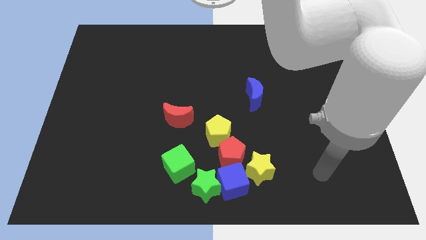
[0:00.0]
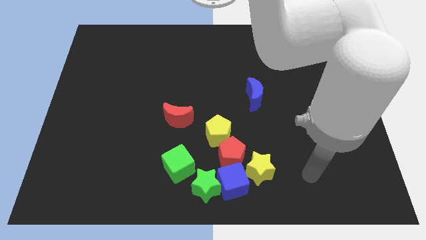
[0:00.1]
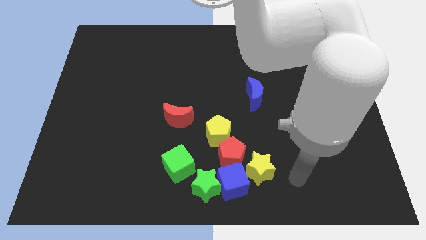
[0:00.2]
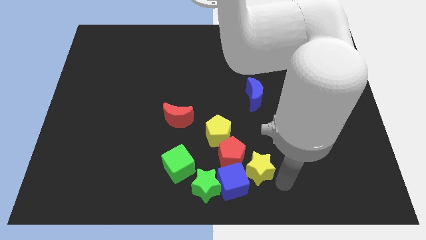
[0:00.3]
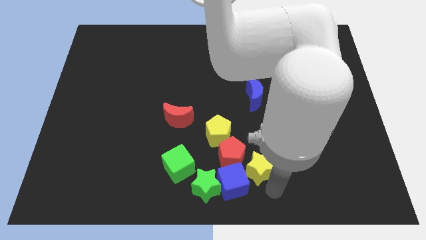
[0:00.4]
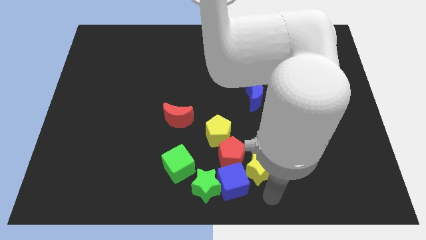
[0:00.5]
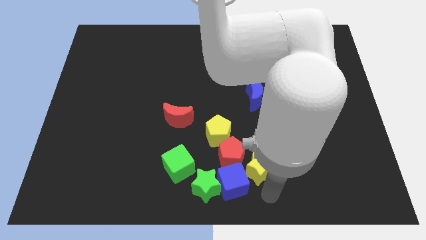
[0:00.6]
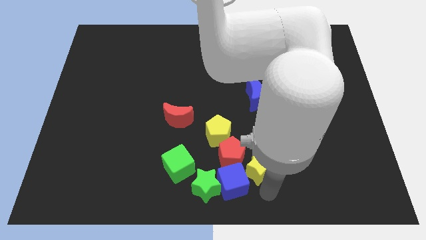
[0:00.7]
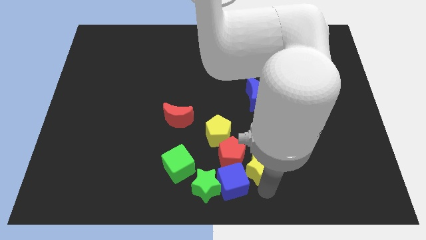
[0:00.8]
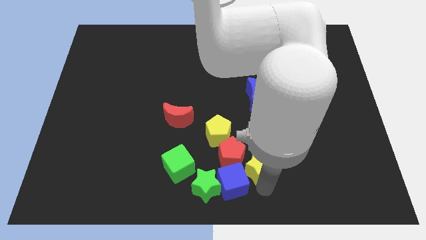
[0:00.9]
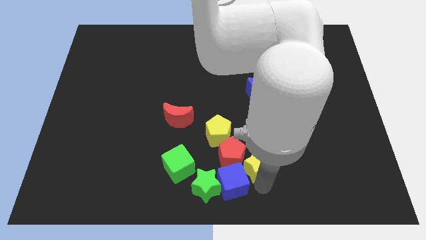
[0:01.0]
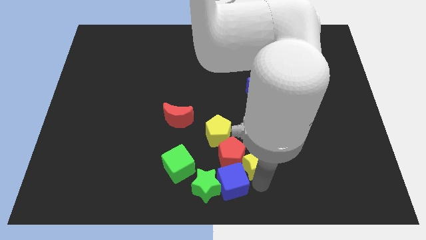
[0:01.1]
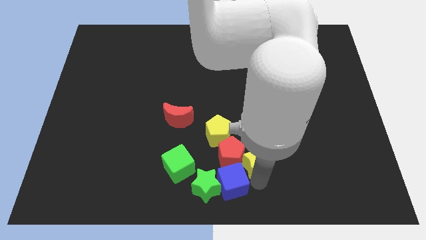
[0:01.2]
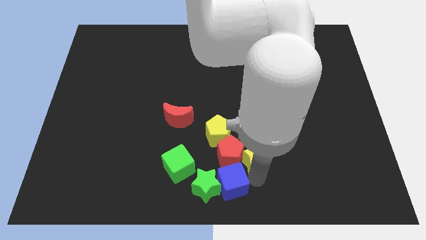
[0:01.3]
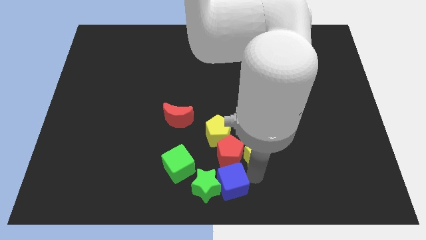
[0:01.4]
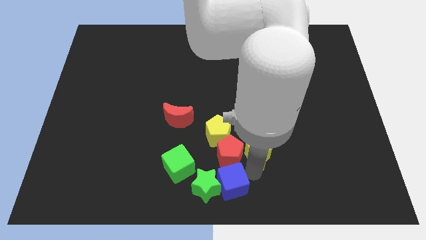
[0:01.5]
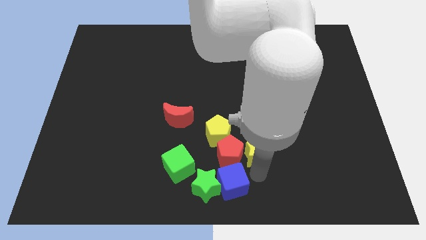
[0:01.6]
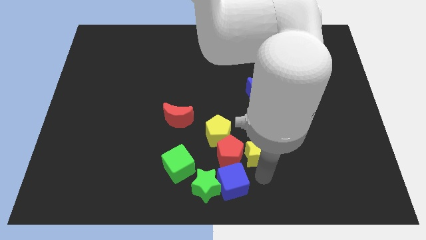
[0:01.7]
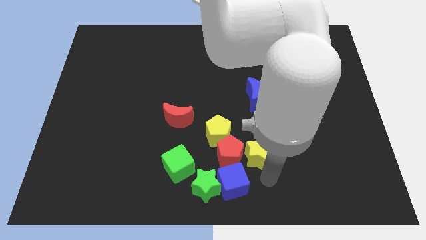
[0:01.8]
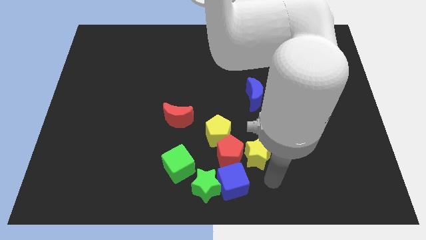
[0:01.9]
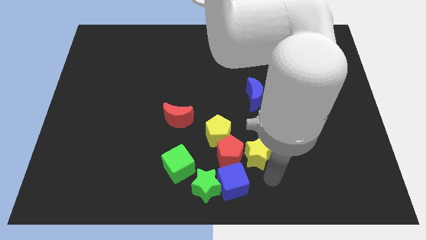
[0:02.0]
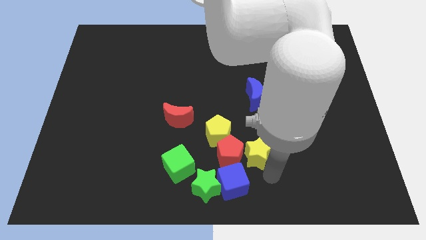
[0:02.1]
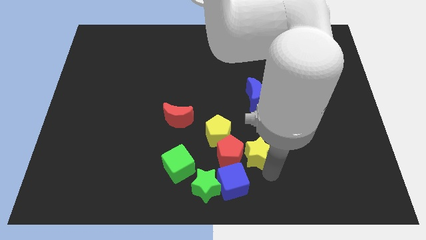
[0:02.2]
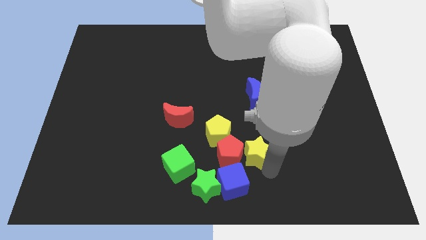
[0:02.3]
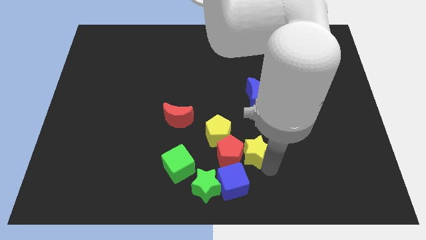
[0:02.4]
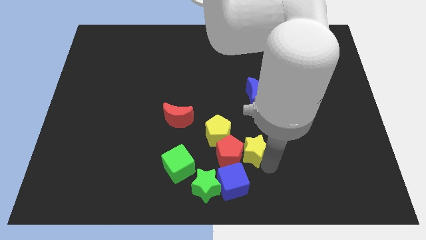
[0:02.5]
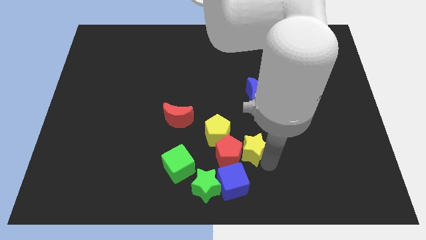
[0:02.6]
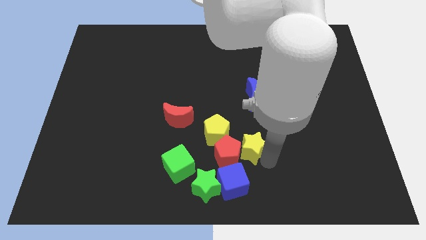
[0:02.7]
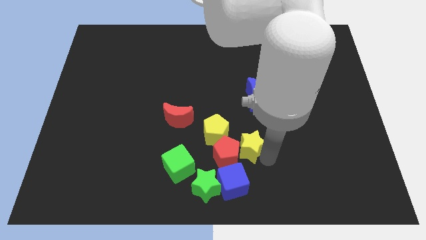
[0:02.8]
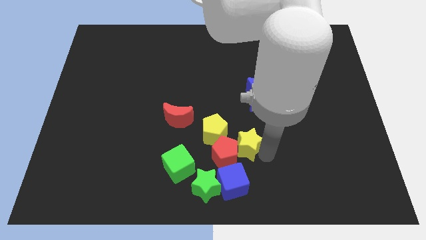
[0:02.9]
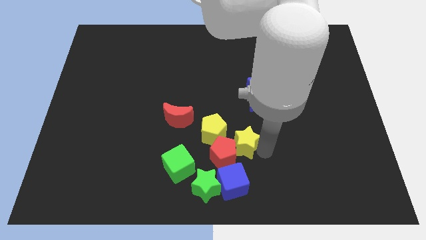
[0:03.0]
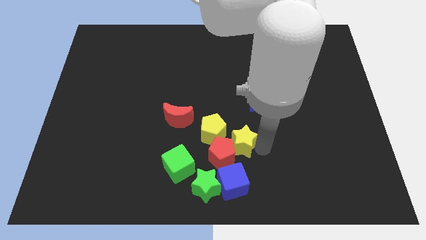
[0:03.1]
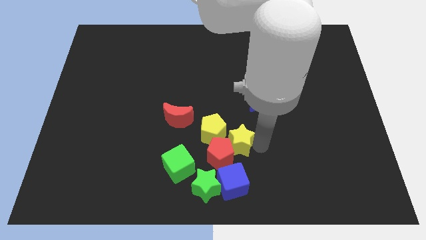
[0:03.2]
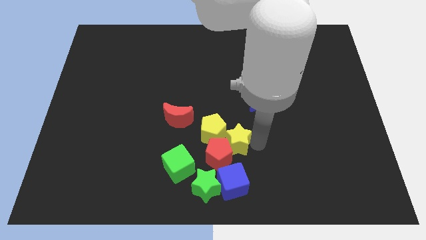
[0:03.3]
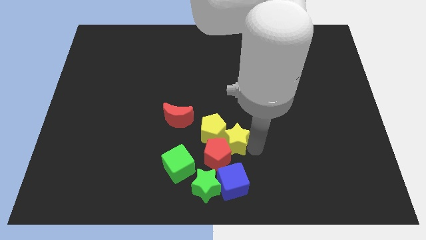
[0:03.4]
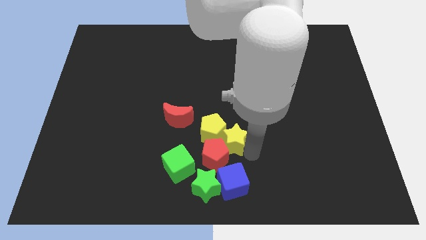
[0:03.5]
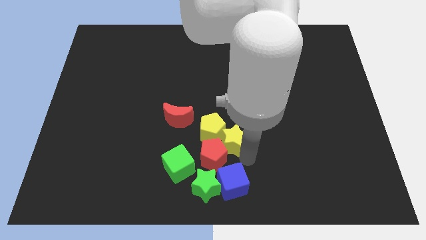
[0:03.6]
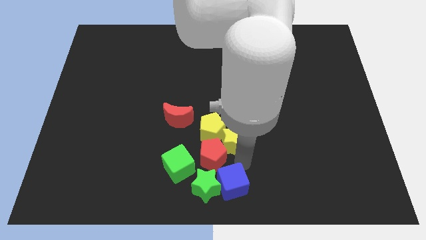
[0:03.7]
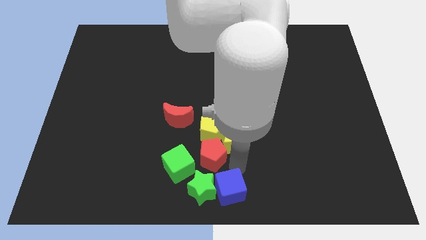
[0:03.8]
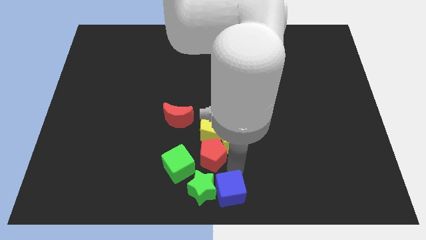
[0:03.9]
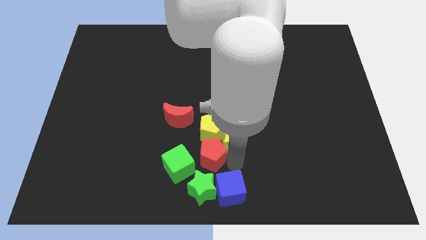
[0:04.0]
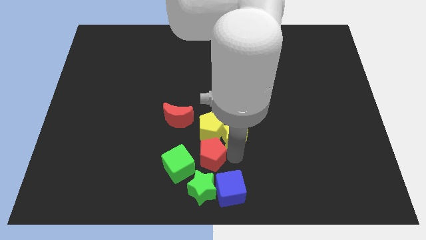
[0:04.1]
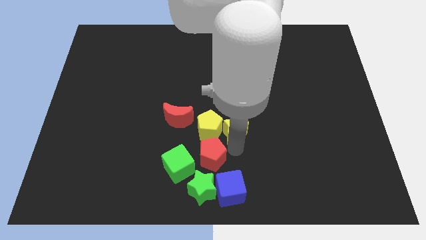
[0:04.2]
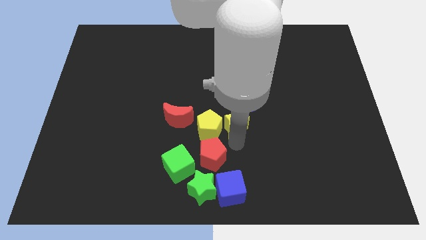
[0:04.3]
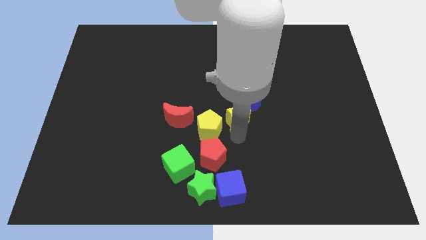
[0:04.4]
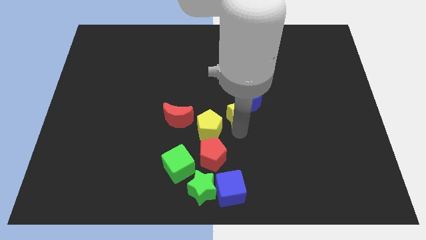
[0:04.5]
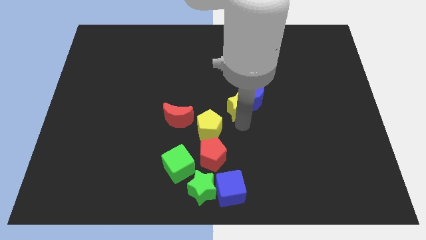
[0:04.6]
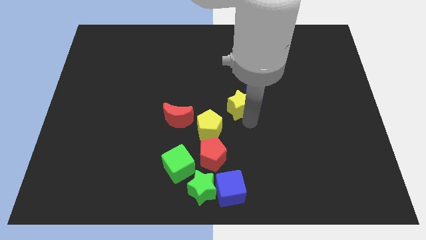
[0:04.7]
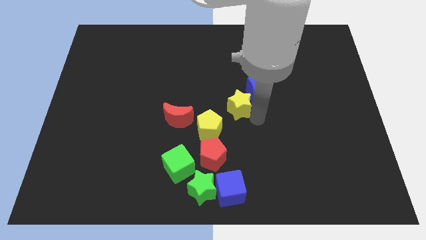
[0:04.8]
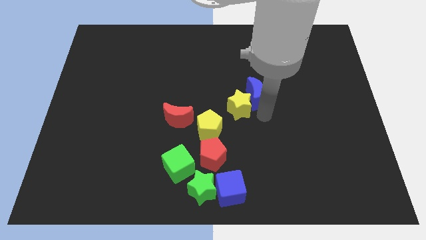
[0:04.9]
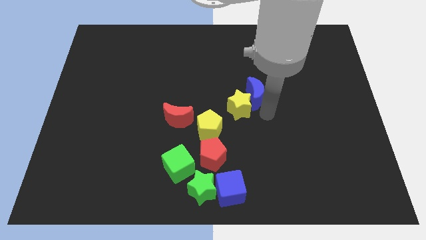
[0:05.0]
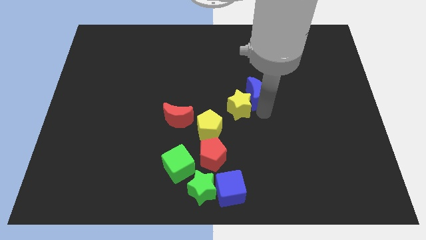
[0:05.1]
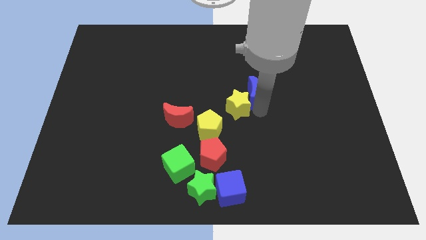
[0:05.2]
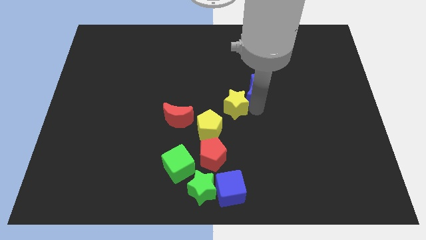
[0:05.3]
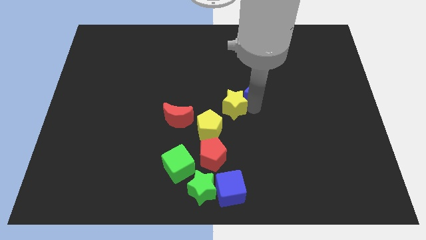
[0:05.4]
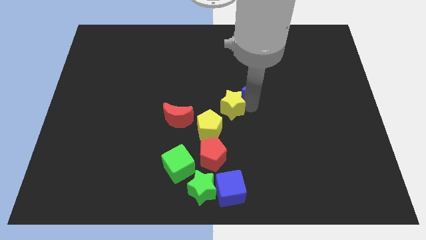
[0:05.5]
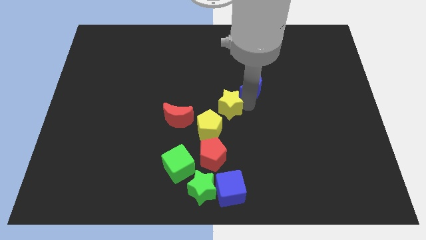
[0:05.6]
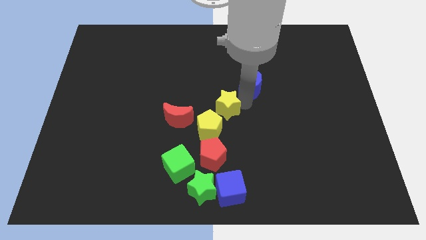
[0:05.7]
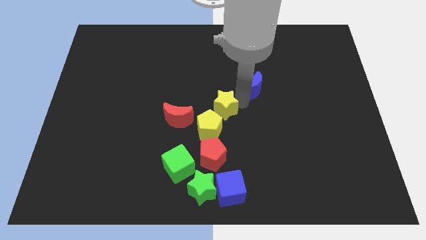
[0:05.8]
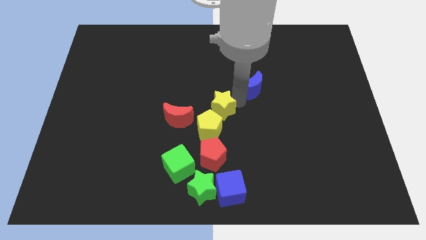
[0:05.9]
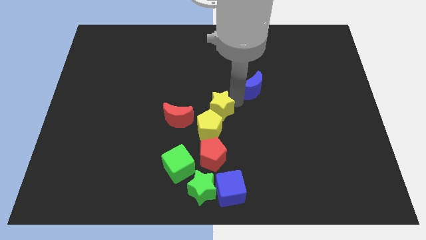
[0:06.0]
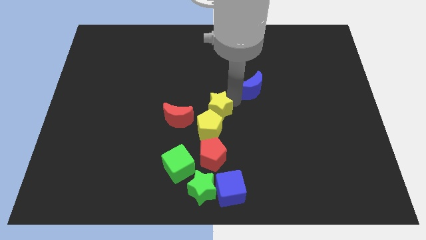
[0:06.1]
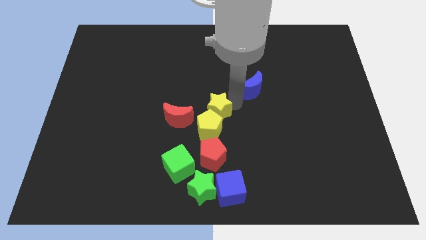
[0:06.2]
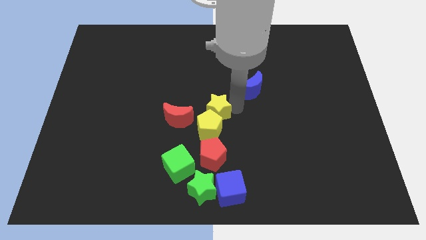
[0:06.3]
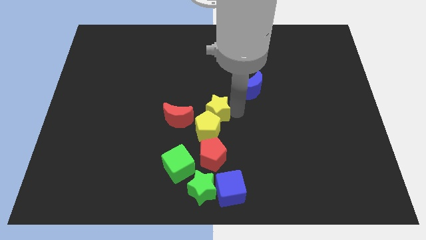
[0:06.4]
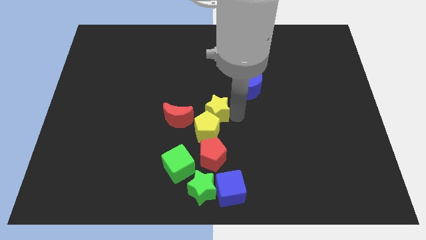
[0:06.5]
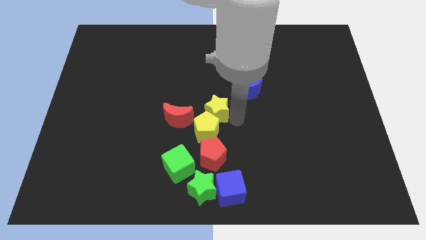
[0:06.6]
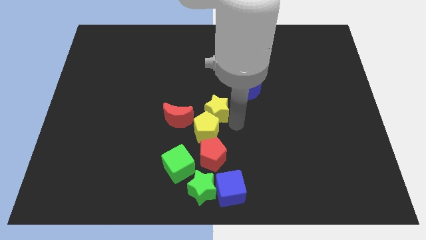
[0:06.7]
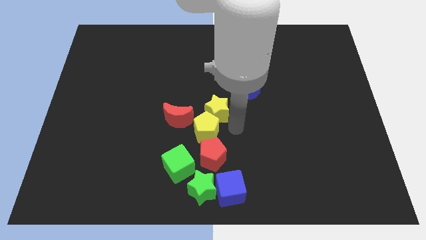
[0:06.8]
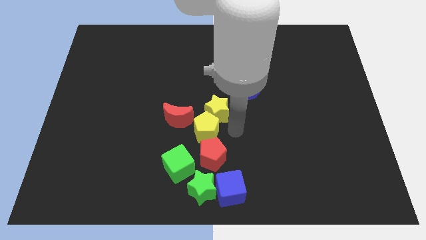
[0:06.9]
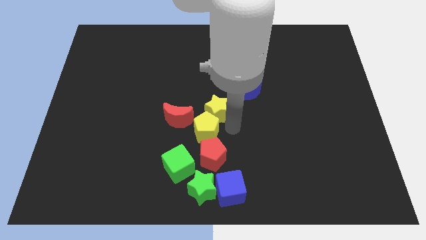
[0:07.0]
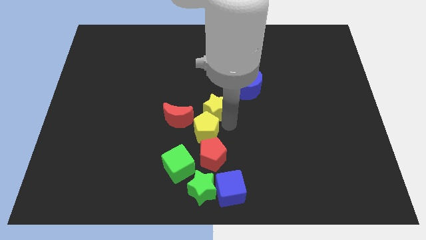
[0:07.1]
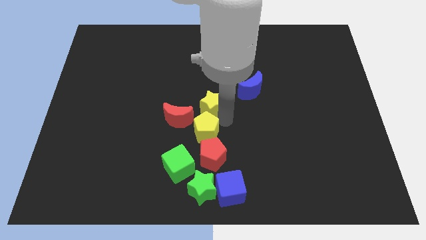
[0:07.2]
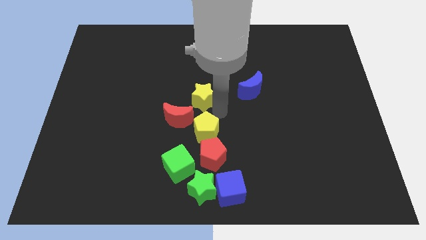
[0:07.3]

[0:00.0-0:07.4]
slide the yellow star upwards and then to the left

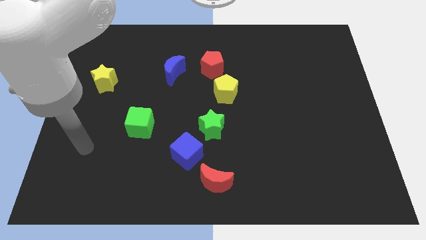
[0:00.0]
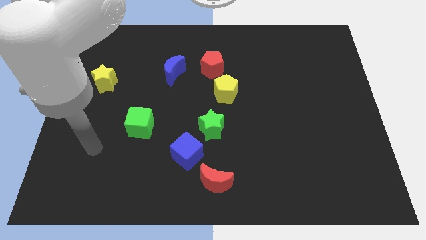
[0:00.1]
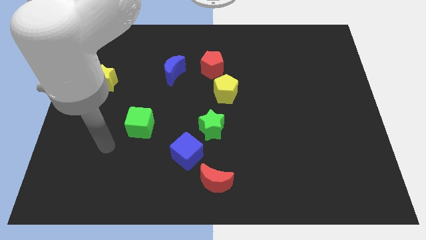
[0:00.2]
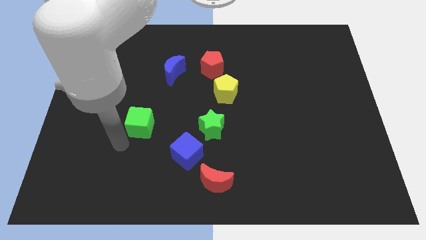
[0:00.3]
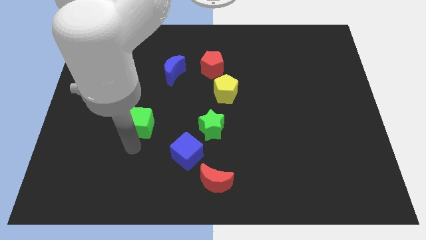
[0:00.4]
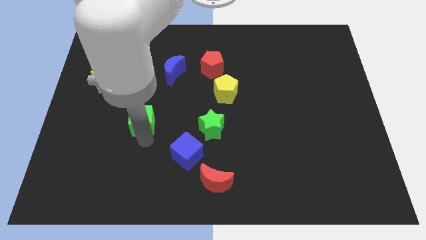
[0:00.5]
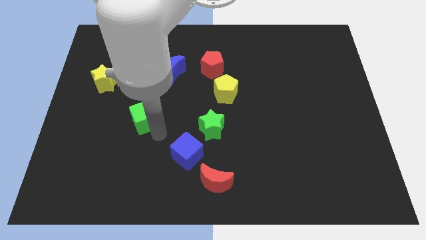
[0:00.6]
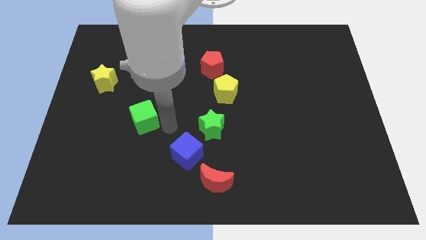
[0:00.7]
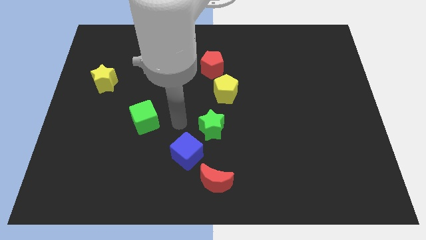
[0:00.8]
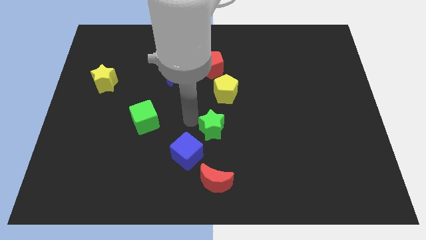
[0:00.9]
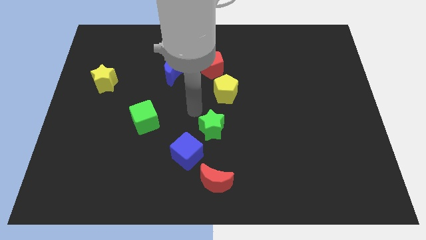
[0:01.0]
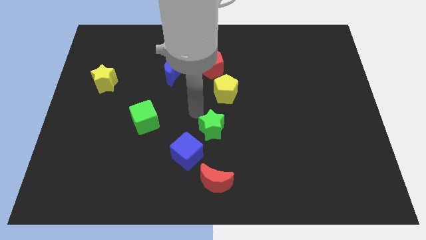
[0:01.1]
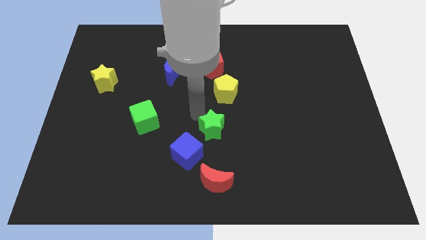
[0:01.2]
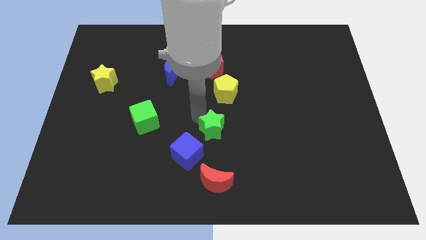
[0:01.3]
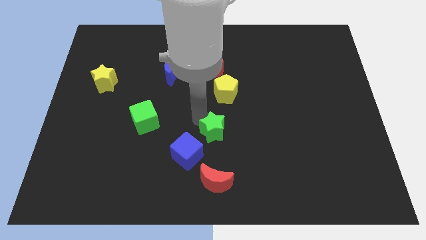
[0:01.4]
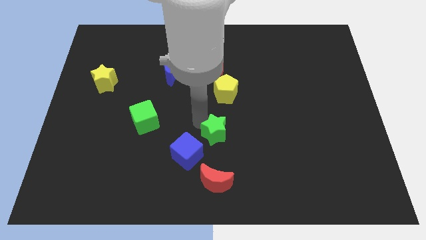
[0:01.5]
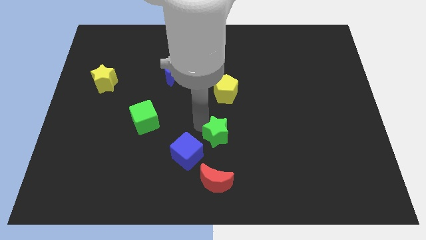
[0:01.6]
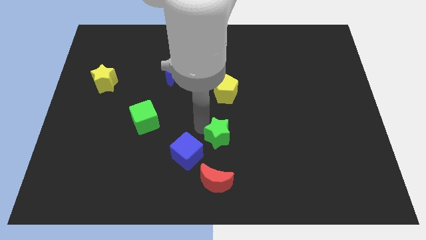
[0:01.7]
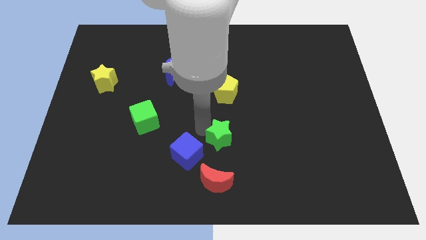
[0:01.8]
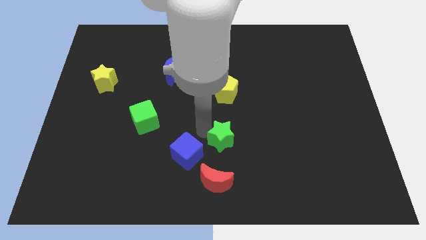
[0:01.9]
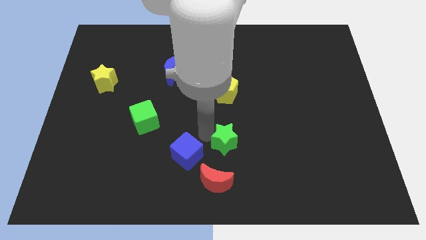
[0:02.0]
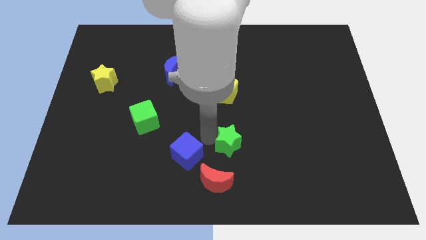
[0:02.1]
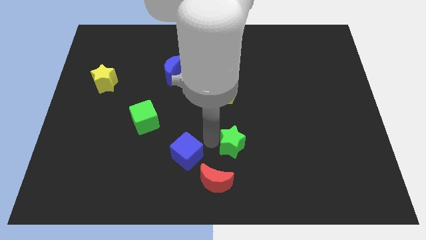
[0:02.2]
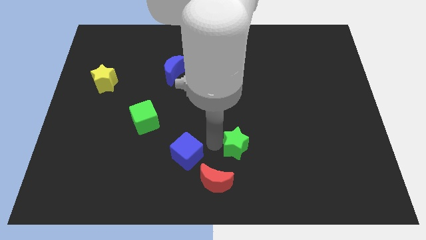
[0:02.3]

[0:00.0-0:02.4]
slightly slide the green star downwards and to the right
